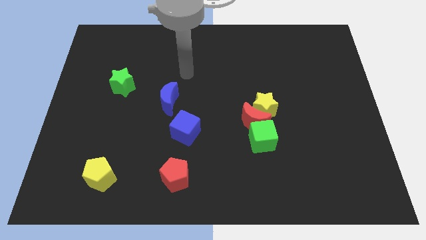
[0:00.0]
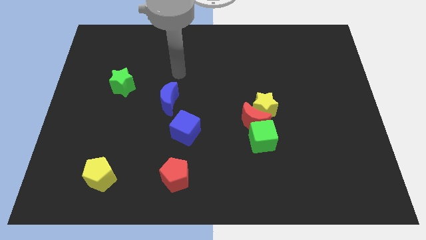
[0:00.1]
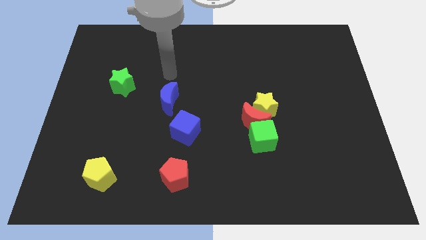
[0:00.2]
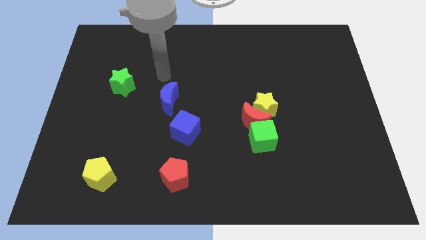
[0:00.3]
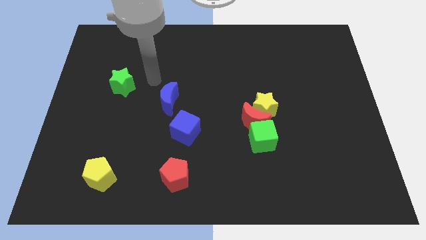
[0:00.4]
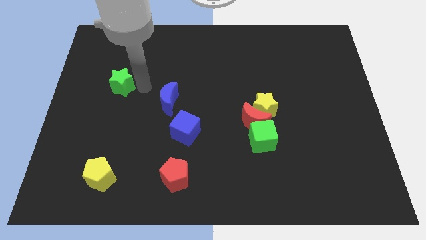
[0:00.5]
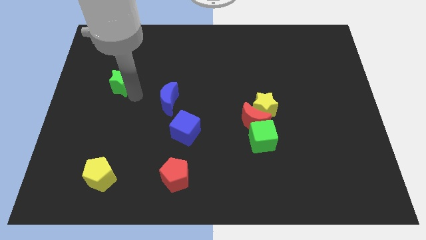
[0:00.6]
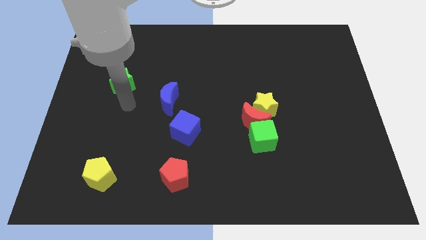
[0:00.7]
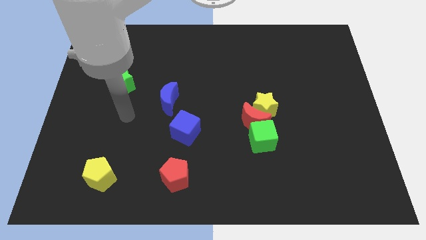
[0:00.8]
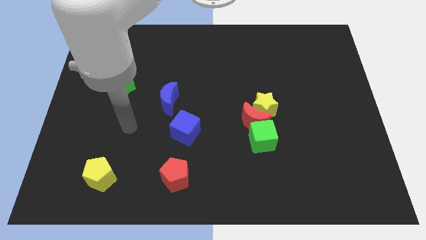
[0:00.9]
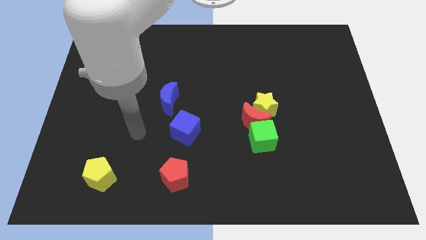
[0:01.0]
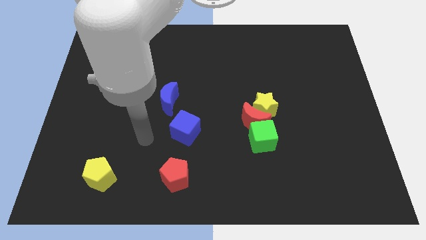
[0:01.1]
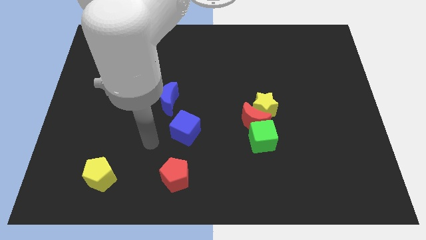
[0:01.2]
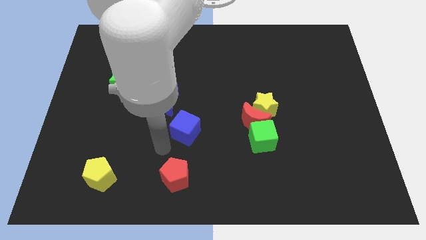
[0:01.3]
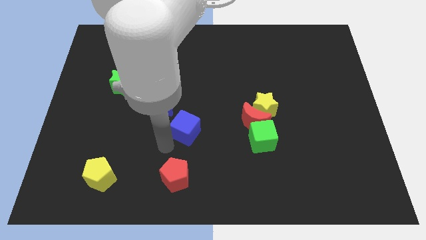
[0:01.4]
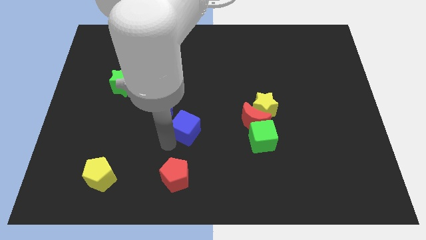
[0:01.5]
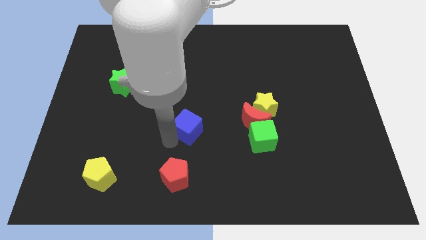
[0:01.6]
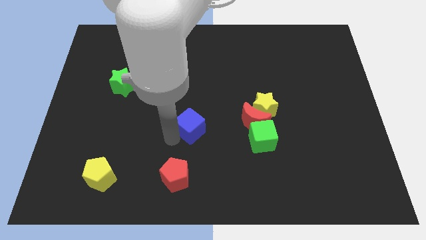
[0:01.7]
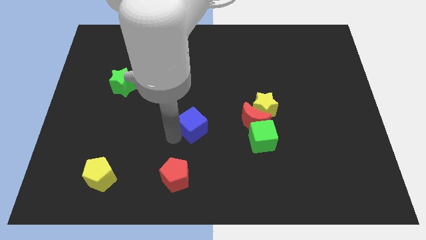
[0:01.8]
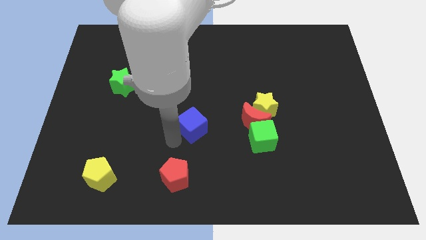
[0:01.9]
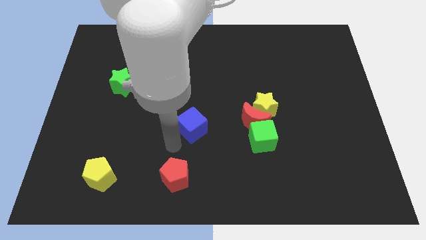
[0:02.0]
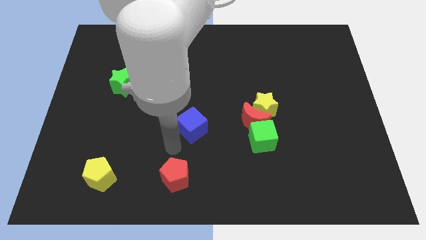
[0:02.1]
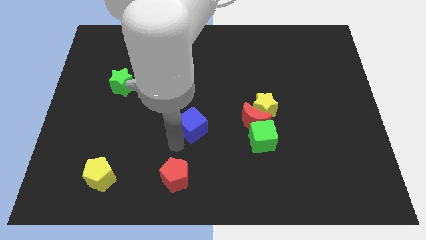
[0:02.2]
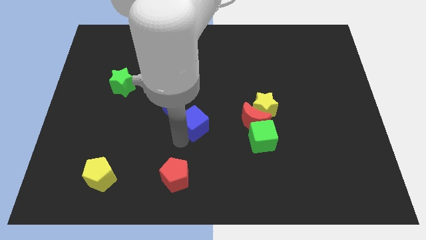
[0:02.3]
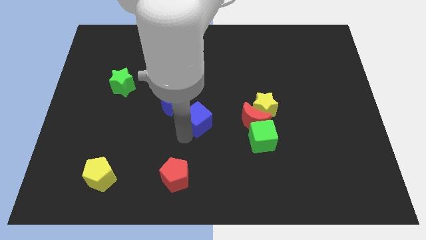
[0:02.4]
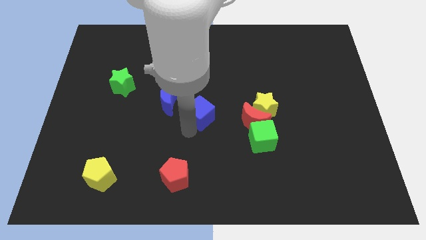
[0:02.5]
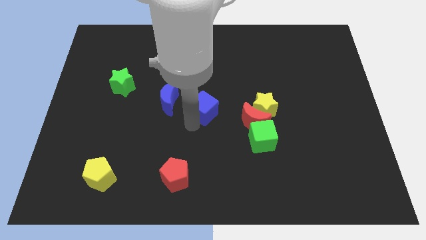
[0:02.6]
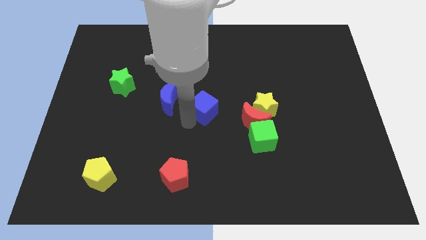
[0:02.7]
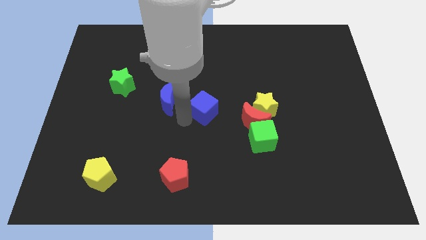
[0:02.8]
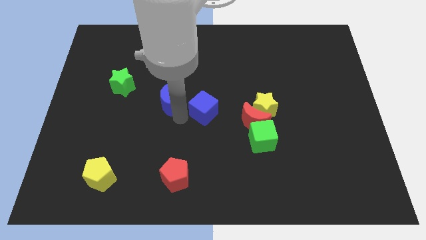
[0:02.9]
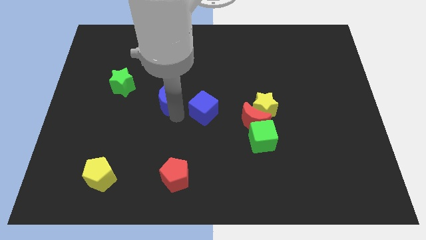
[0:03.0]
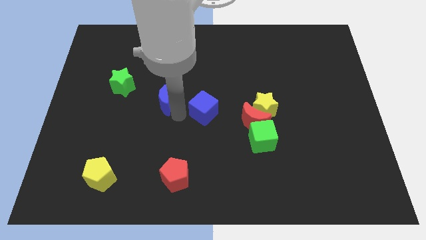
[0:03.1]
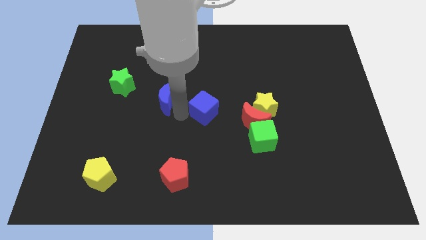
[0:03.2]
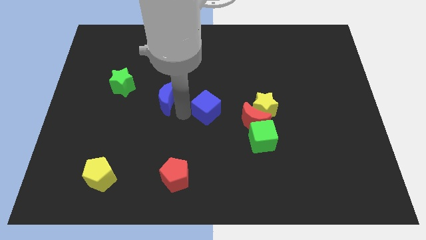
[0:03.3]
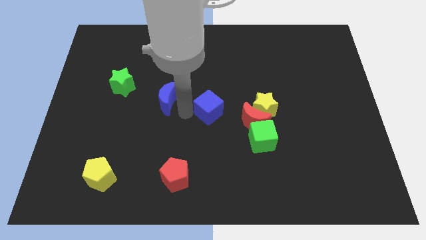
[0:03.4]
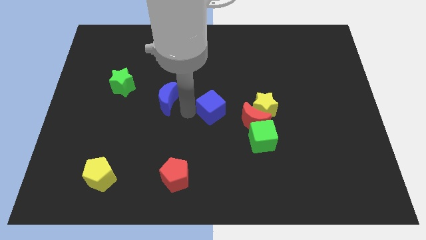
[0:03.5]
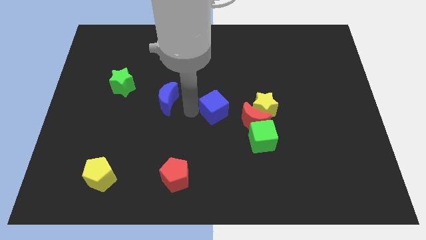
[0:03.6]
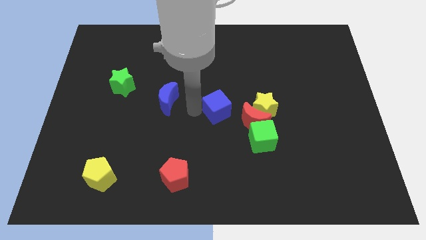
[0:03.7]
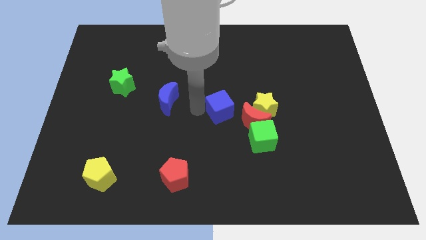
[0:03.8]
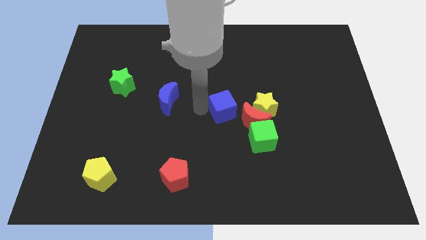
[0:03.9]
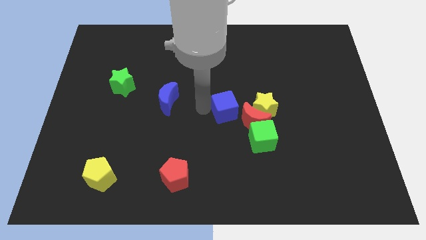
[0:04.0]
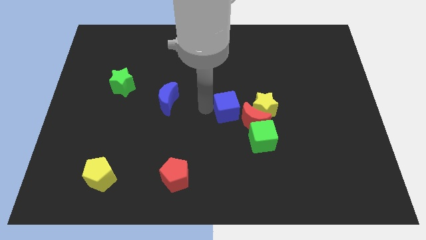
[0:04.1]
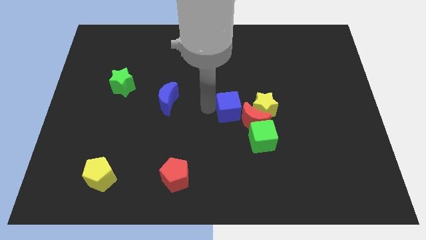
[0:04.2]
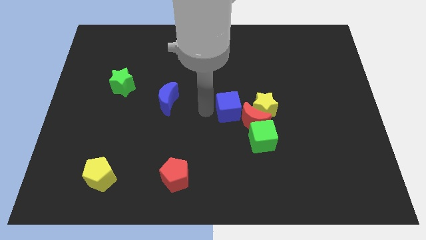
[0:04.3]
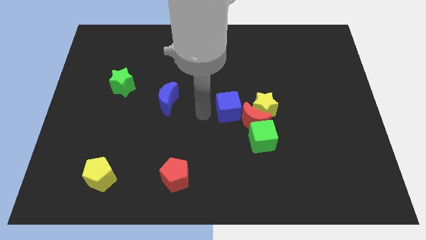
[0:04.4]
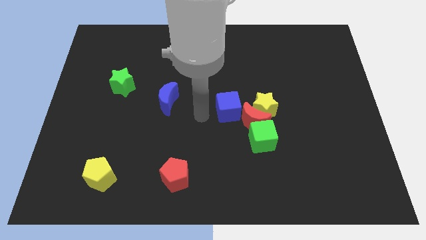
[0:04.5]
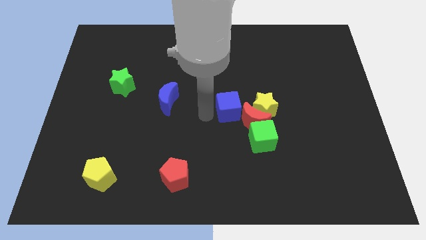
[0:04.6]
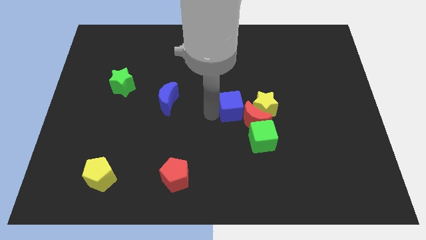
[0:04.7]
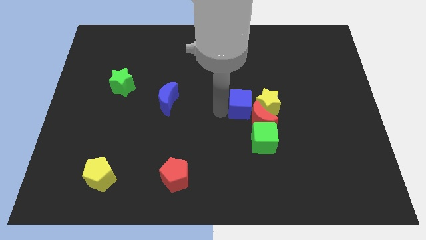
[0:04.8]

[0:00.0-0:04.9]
move the blue cube next to the yellow star

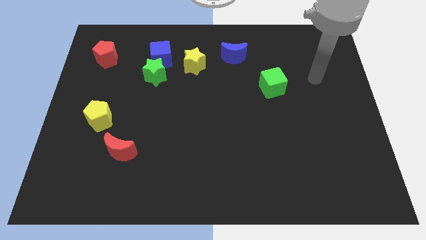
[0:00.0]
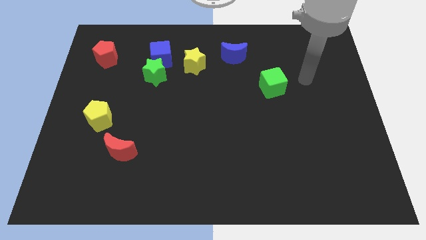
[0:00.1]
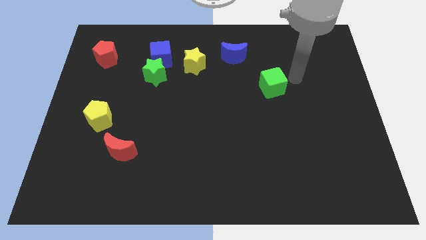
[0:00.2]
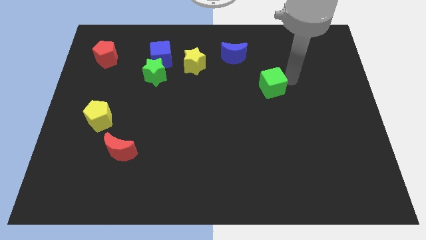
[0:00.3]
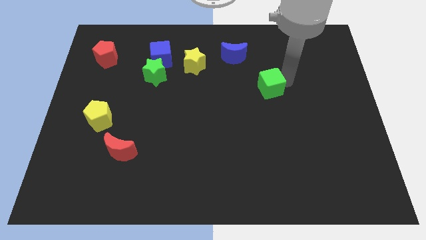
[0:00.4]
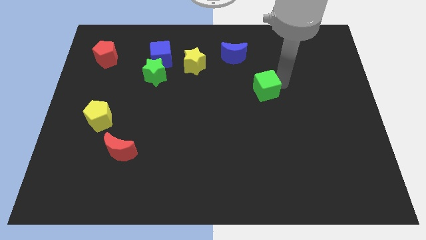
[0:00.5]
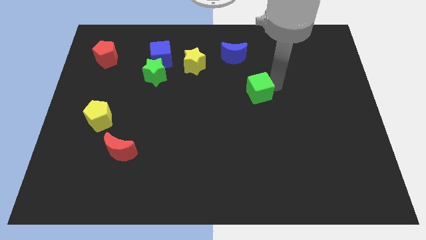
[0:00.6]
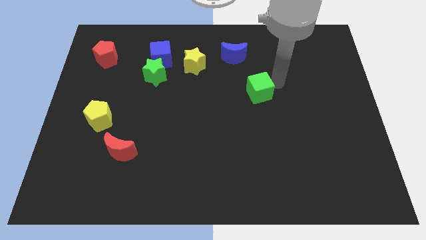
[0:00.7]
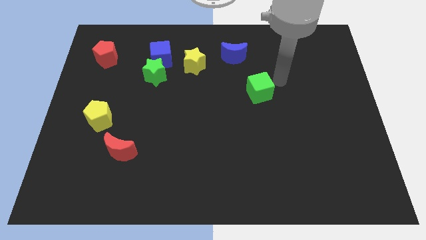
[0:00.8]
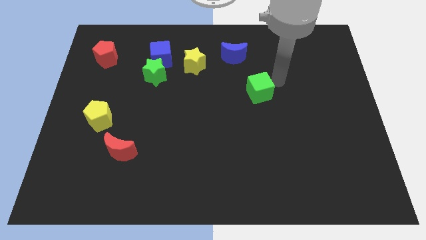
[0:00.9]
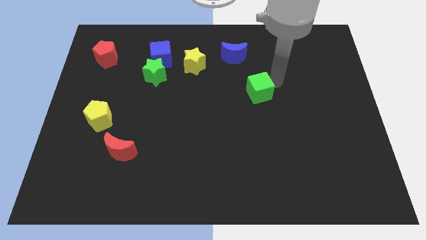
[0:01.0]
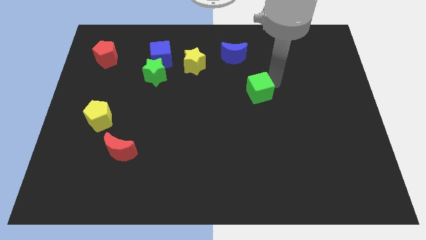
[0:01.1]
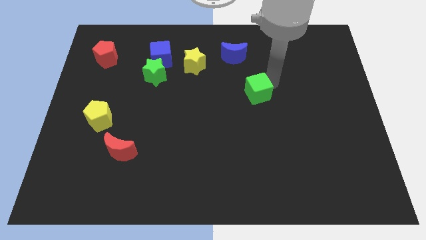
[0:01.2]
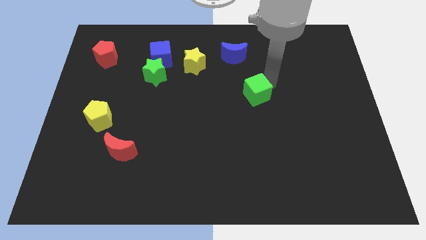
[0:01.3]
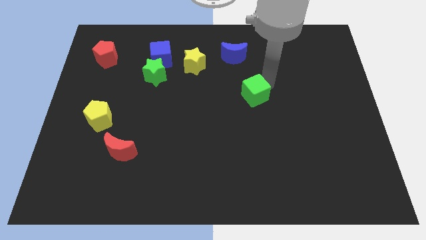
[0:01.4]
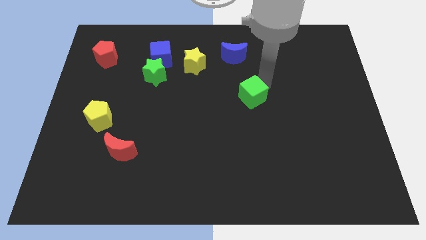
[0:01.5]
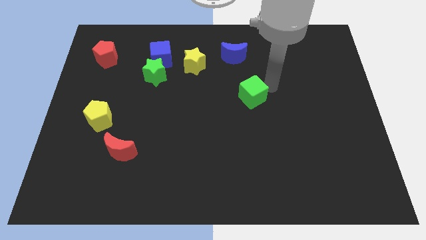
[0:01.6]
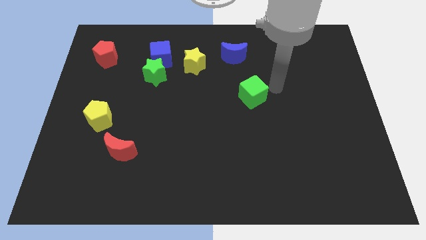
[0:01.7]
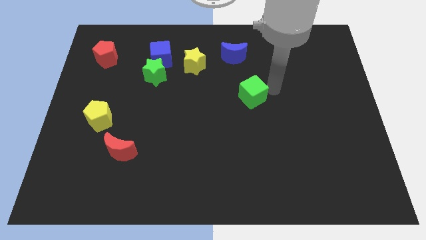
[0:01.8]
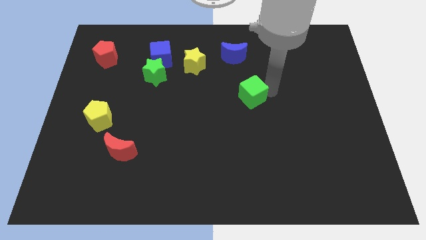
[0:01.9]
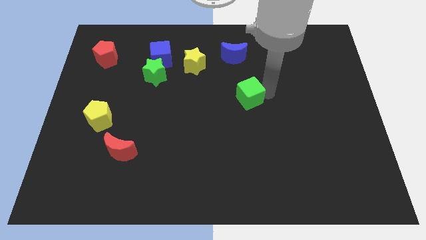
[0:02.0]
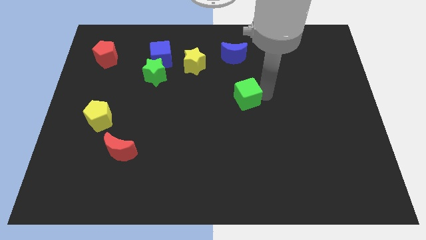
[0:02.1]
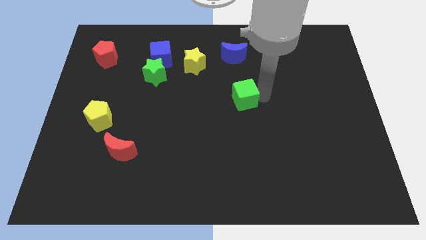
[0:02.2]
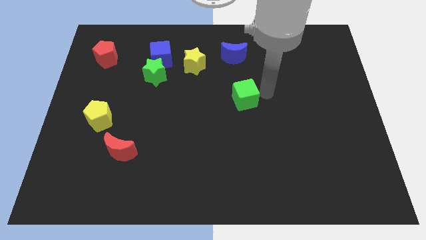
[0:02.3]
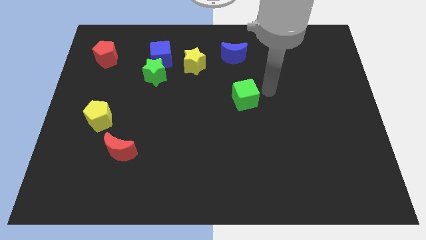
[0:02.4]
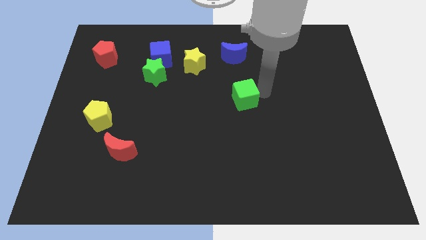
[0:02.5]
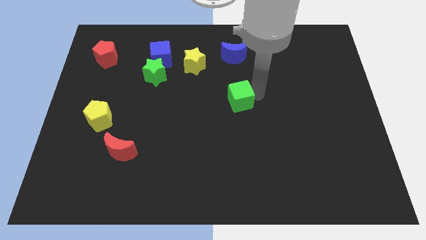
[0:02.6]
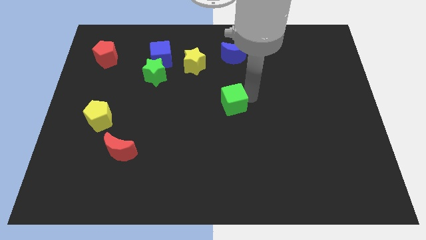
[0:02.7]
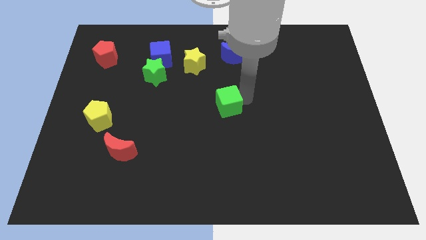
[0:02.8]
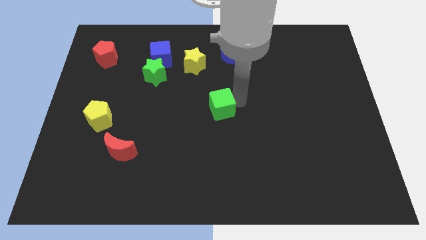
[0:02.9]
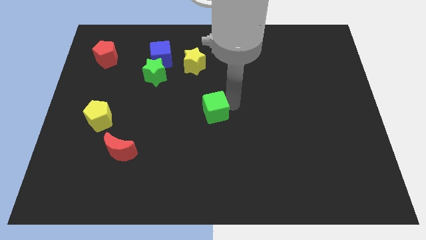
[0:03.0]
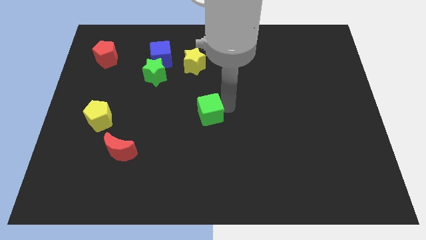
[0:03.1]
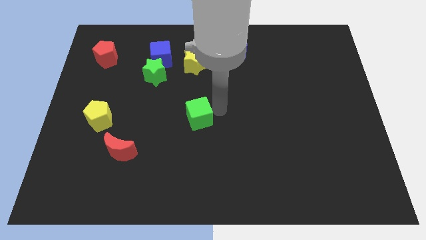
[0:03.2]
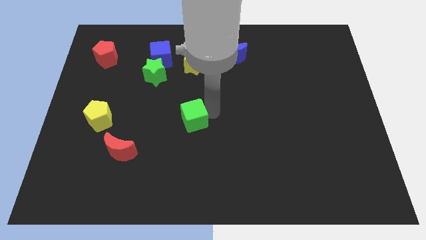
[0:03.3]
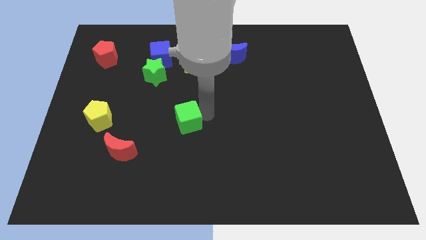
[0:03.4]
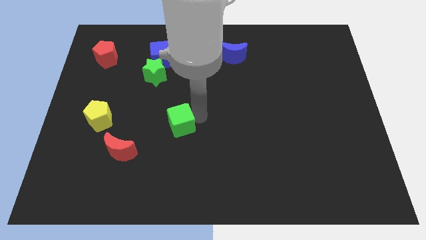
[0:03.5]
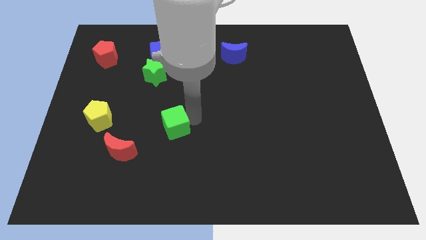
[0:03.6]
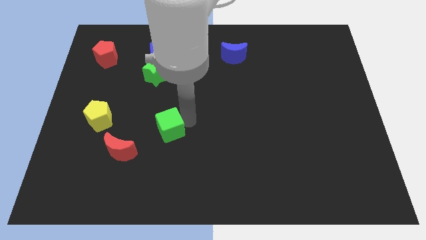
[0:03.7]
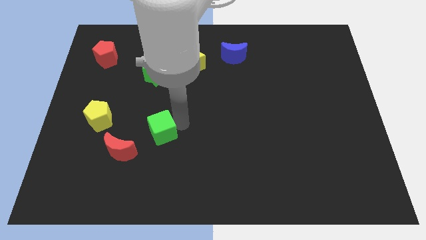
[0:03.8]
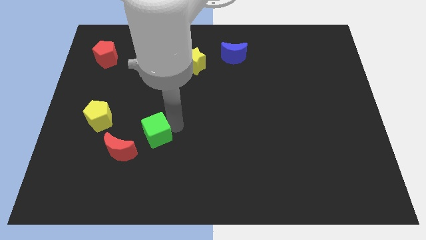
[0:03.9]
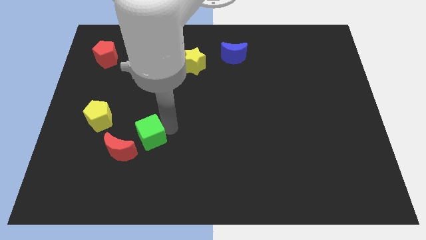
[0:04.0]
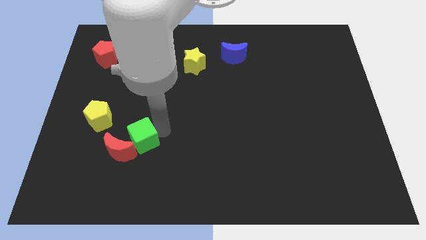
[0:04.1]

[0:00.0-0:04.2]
put the green cube next to the red moon
